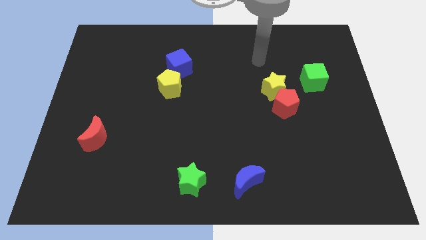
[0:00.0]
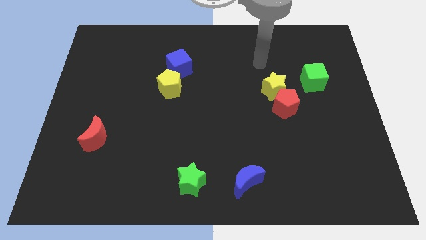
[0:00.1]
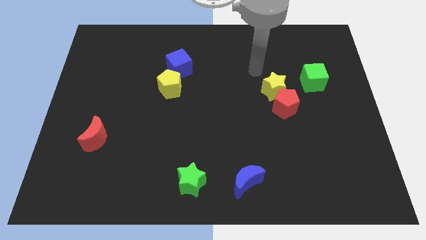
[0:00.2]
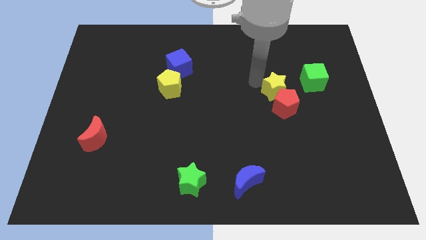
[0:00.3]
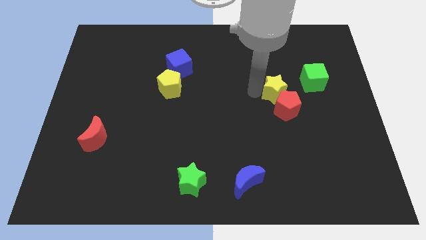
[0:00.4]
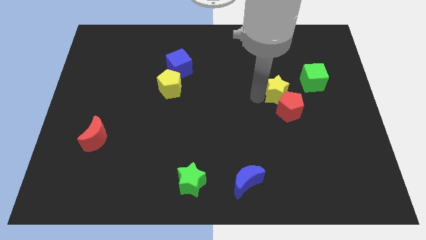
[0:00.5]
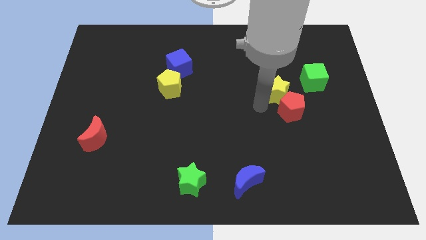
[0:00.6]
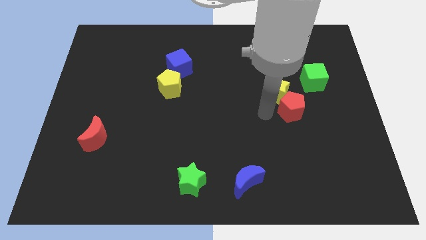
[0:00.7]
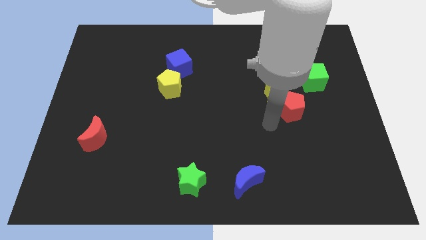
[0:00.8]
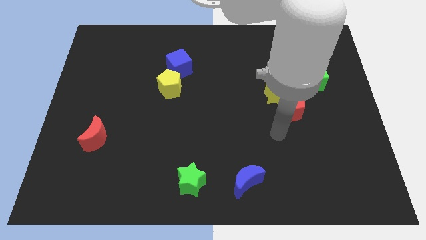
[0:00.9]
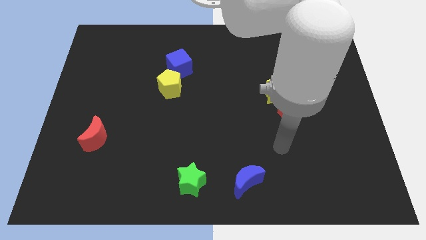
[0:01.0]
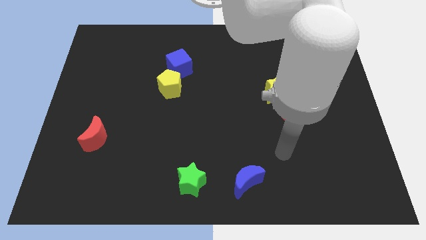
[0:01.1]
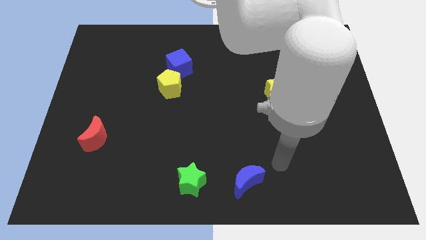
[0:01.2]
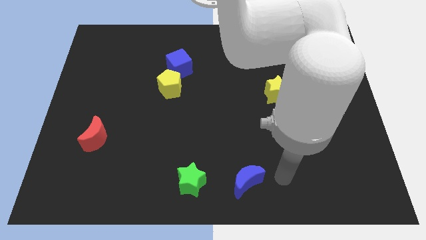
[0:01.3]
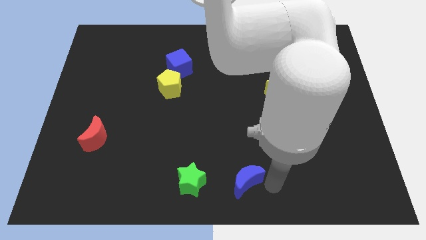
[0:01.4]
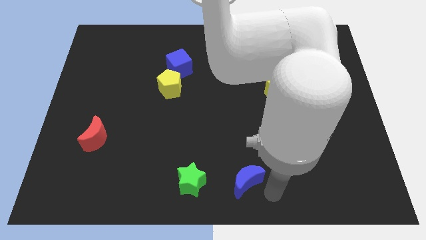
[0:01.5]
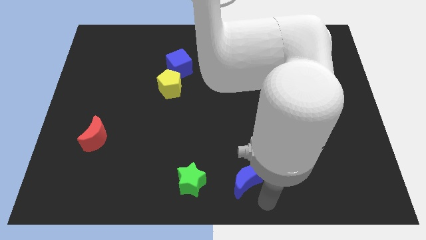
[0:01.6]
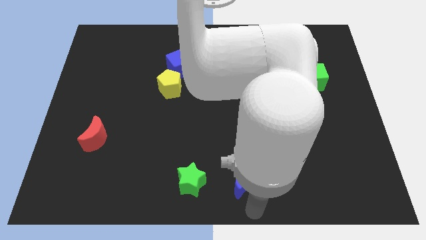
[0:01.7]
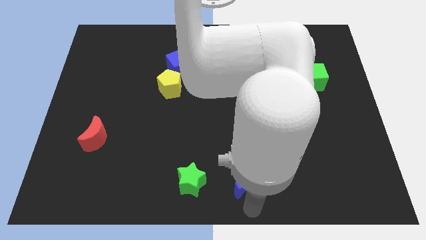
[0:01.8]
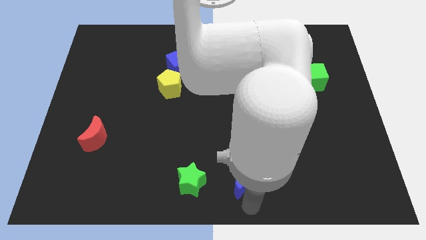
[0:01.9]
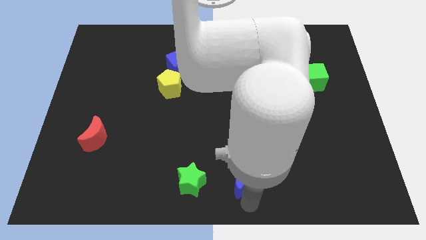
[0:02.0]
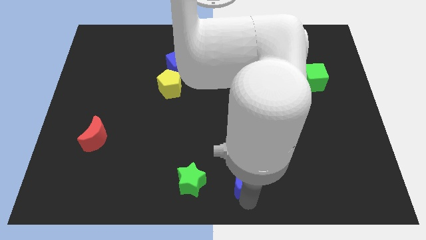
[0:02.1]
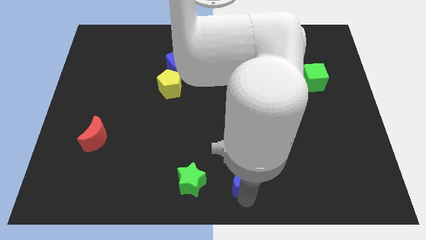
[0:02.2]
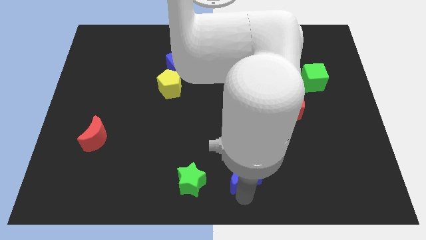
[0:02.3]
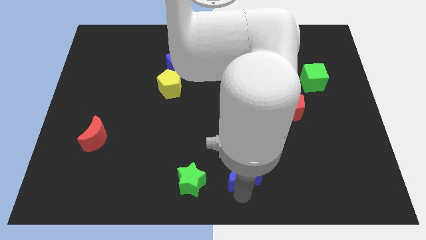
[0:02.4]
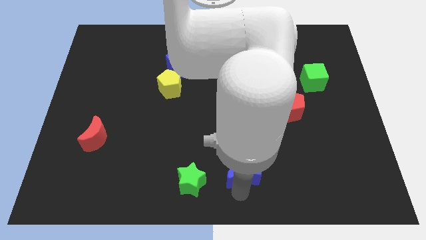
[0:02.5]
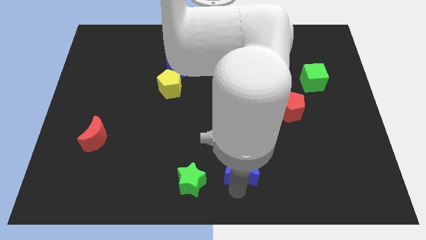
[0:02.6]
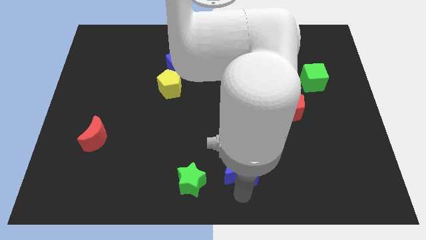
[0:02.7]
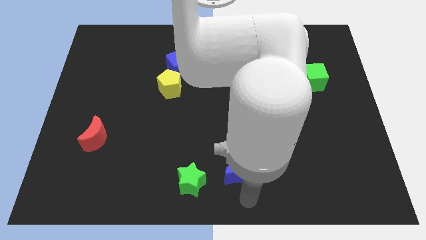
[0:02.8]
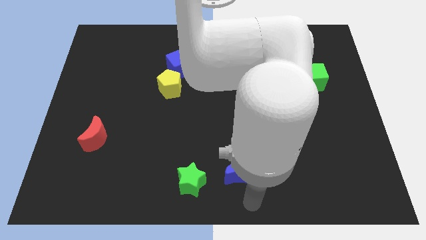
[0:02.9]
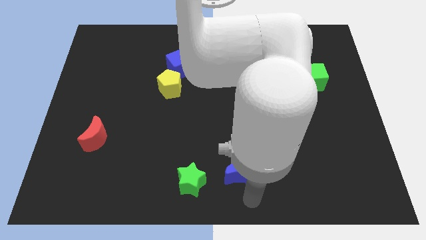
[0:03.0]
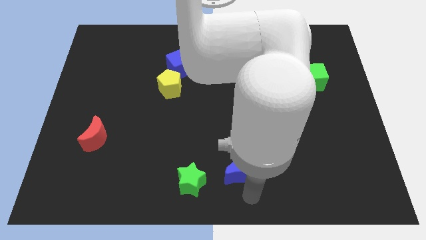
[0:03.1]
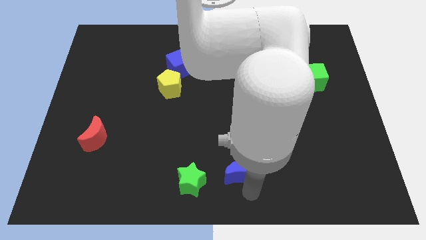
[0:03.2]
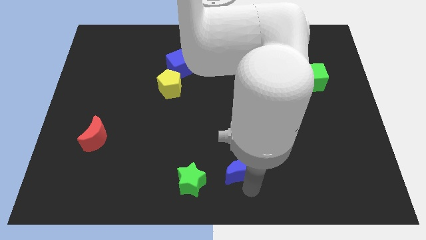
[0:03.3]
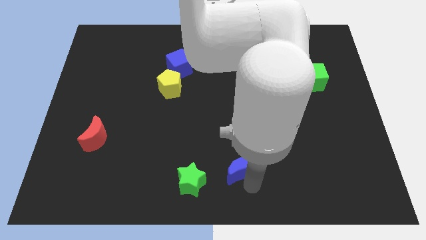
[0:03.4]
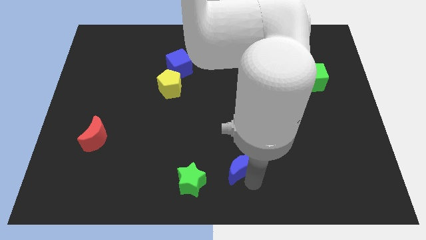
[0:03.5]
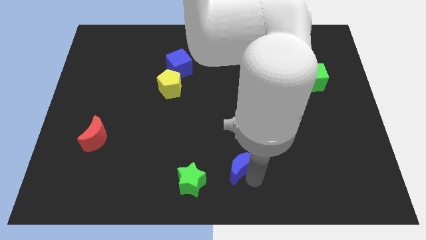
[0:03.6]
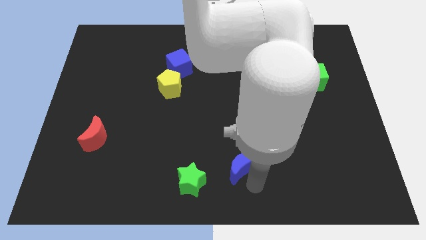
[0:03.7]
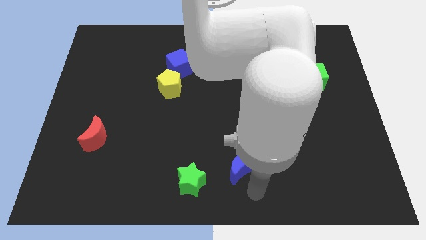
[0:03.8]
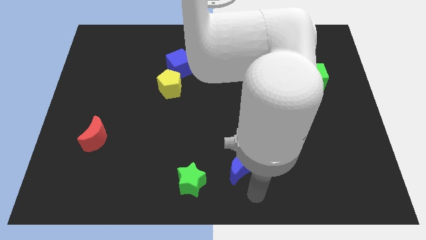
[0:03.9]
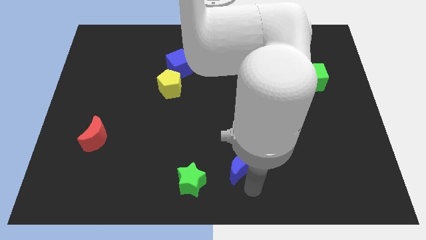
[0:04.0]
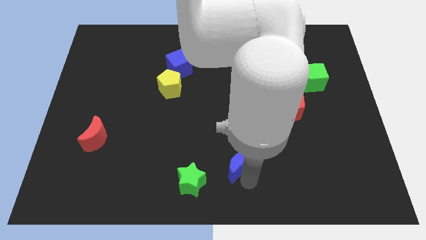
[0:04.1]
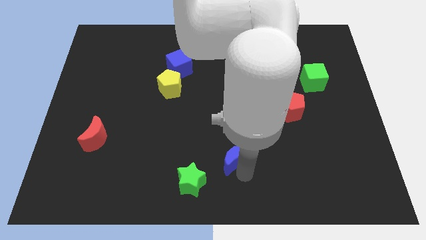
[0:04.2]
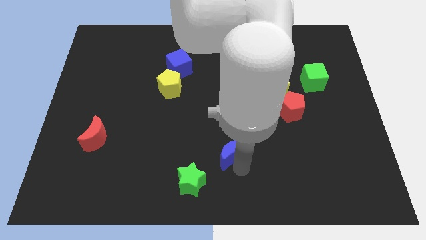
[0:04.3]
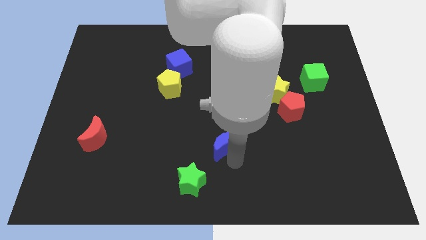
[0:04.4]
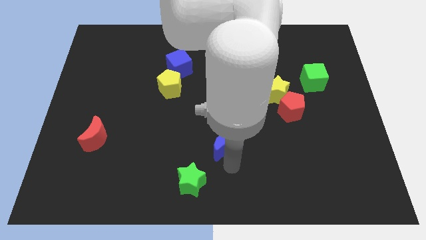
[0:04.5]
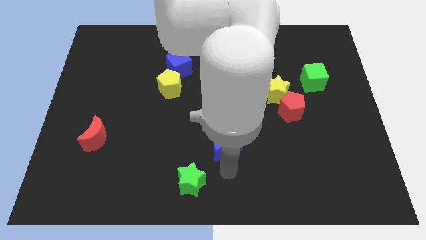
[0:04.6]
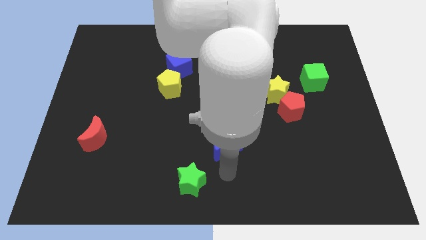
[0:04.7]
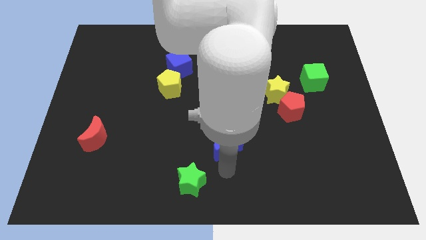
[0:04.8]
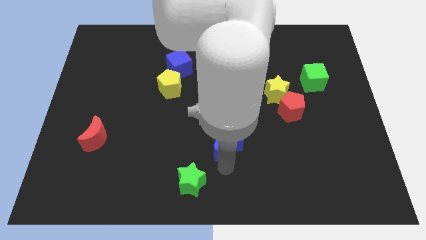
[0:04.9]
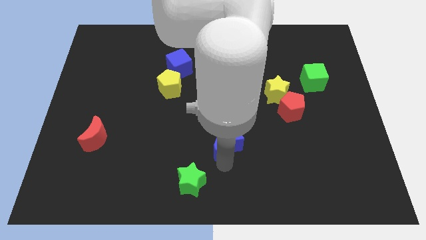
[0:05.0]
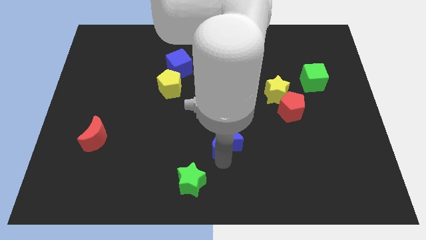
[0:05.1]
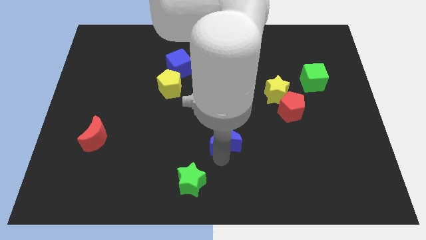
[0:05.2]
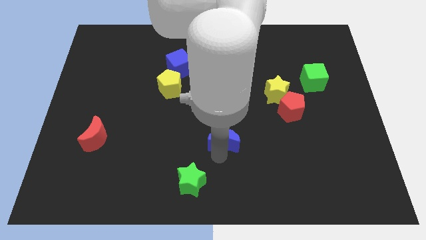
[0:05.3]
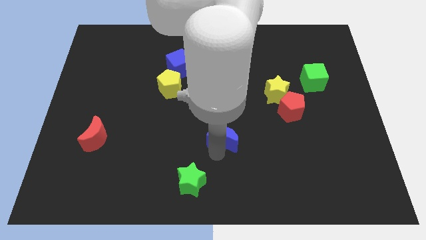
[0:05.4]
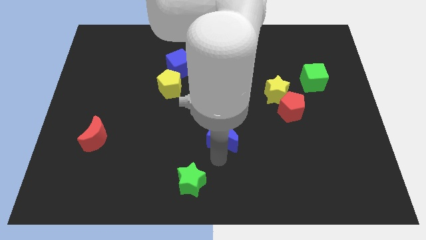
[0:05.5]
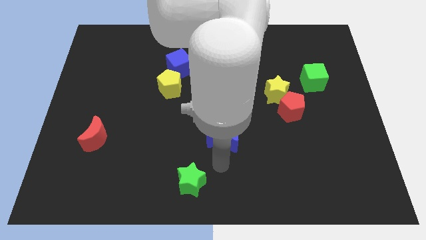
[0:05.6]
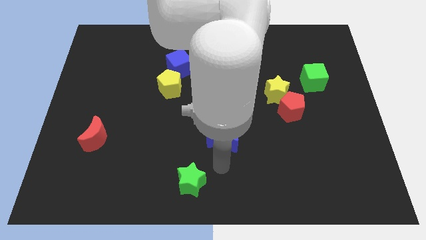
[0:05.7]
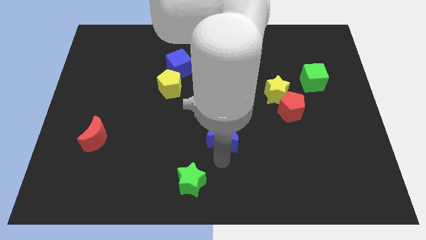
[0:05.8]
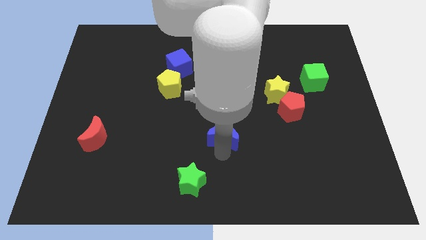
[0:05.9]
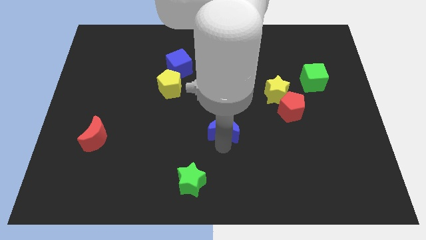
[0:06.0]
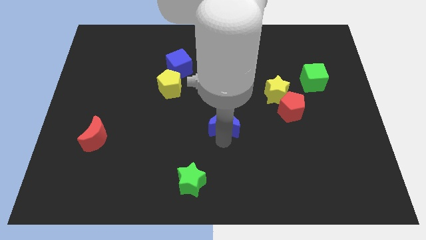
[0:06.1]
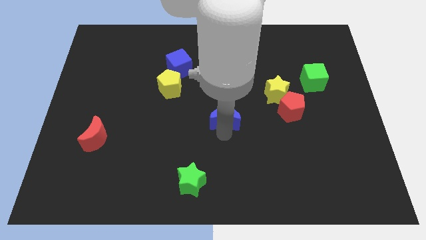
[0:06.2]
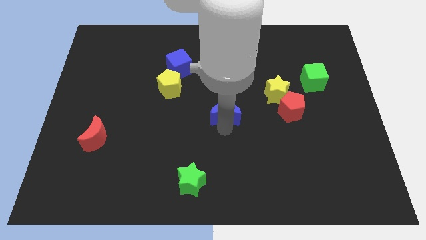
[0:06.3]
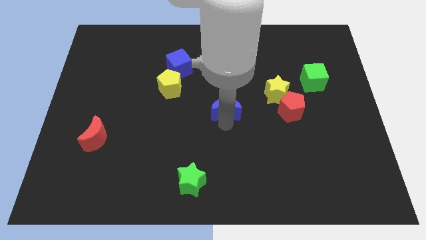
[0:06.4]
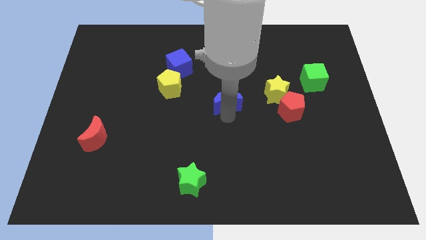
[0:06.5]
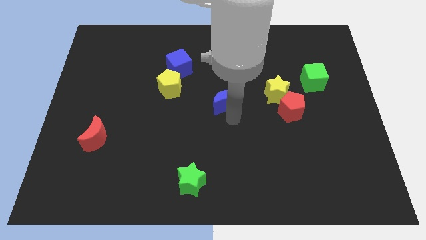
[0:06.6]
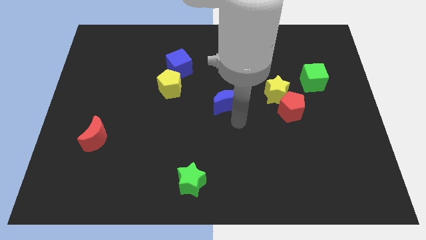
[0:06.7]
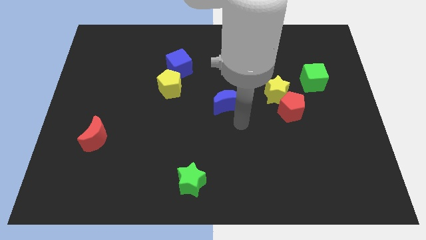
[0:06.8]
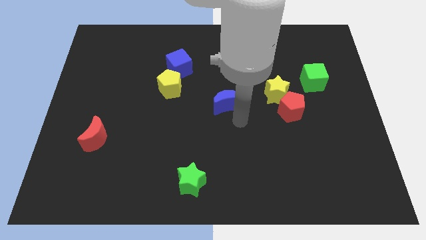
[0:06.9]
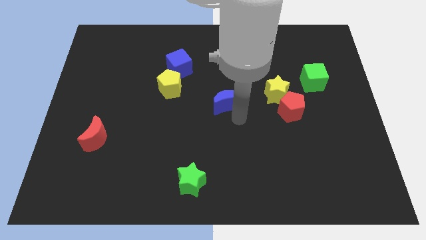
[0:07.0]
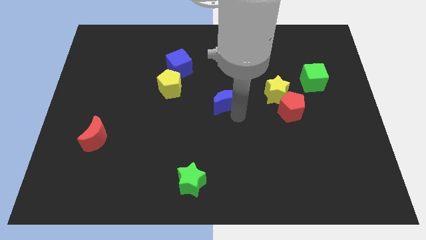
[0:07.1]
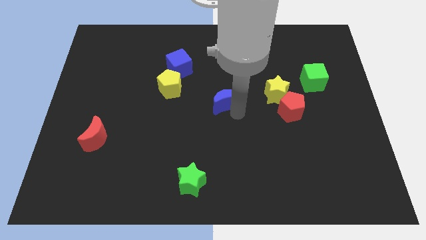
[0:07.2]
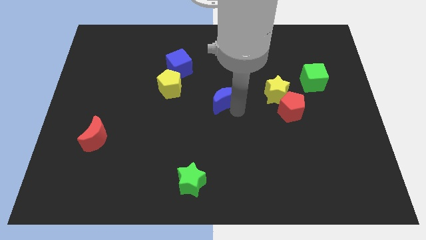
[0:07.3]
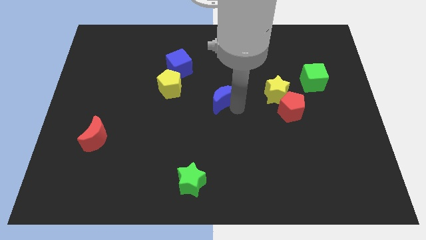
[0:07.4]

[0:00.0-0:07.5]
push the blue moon right of the yellow pentagon
